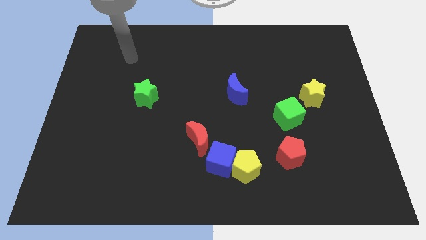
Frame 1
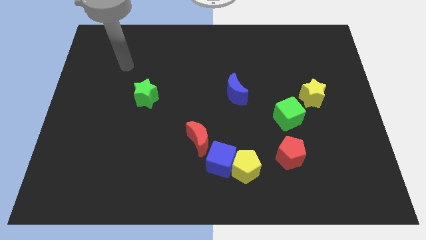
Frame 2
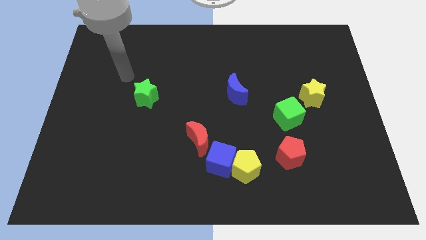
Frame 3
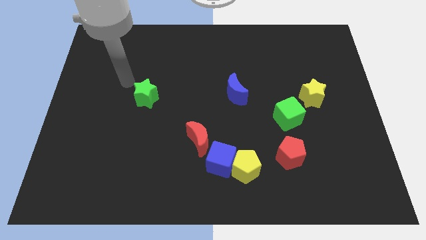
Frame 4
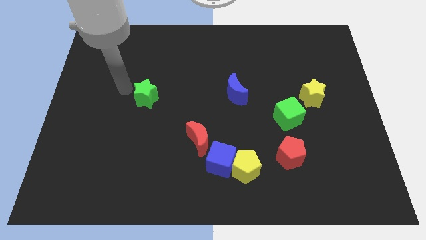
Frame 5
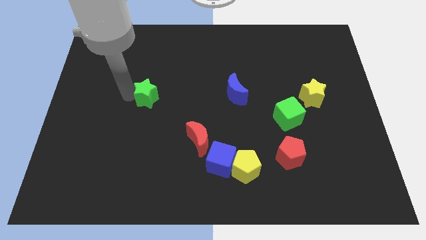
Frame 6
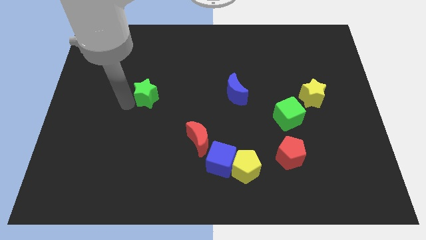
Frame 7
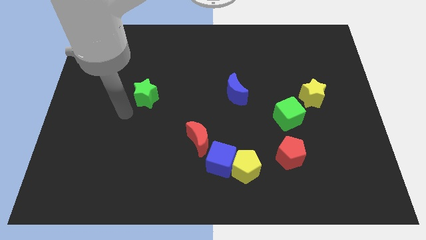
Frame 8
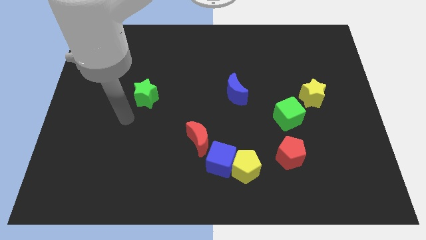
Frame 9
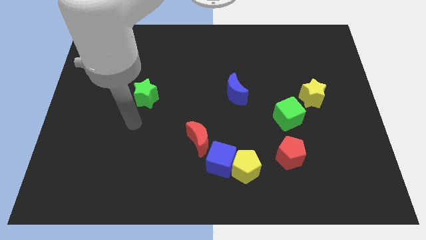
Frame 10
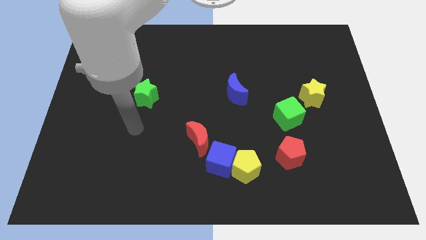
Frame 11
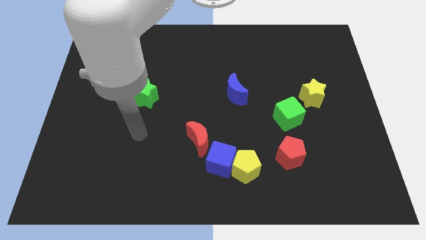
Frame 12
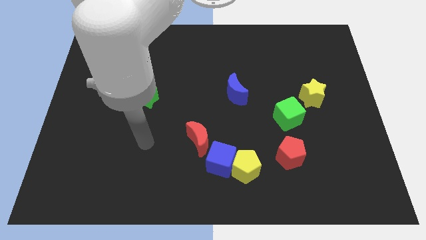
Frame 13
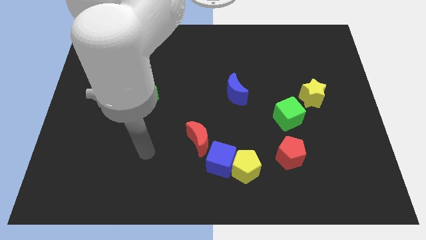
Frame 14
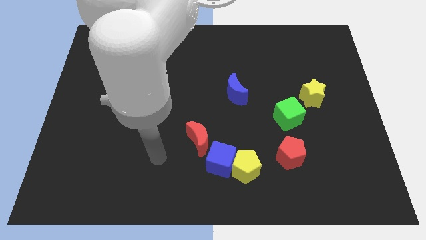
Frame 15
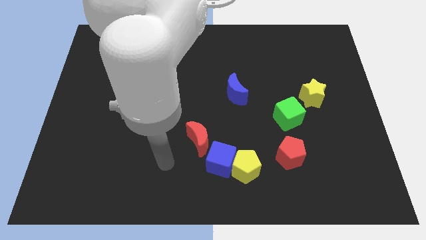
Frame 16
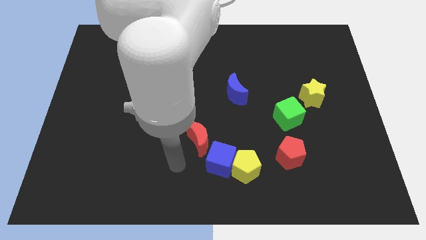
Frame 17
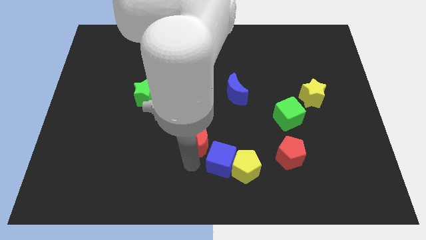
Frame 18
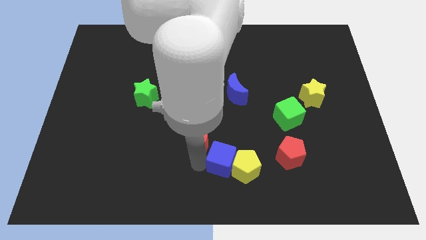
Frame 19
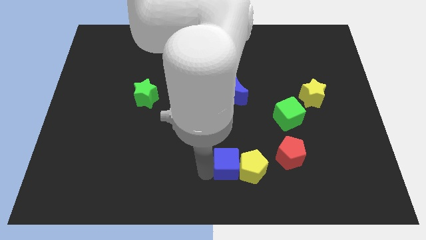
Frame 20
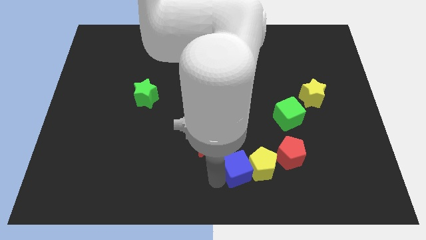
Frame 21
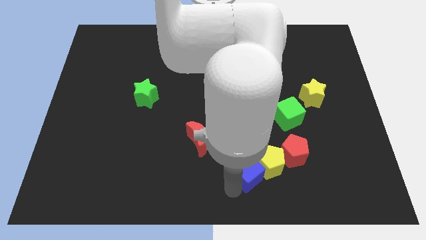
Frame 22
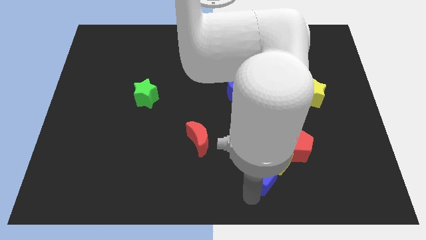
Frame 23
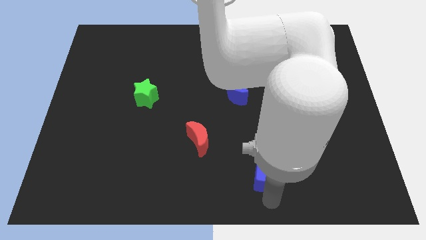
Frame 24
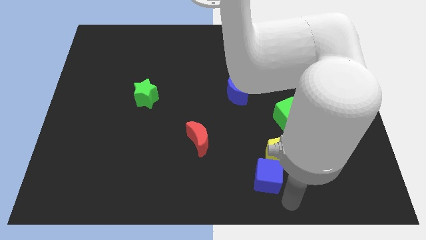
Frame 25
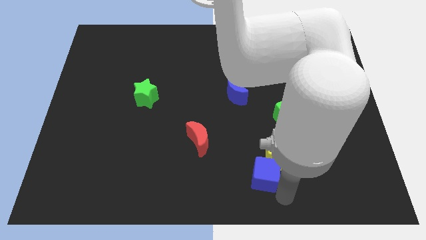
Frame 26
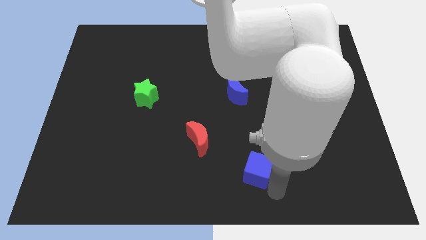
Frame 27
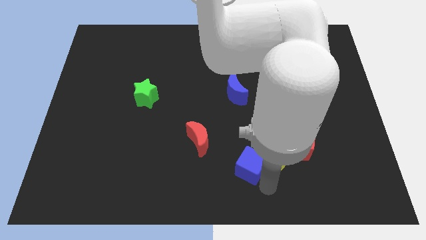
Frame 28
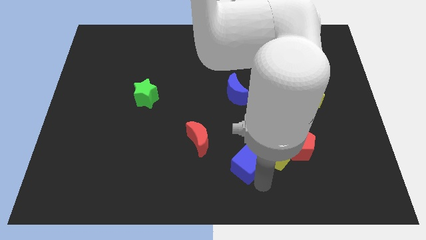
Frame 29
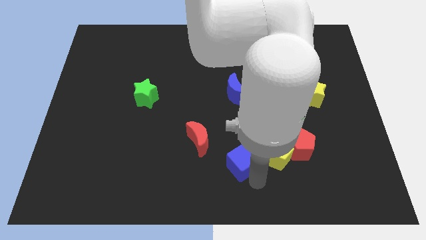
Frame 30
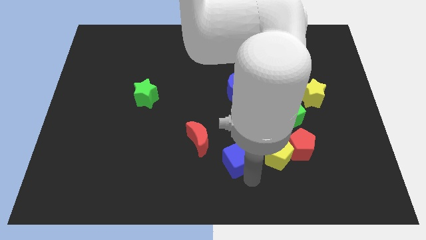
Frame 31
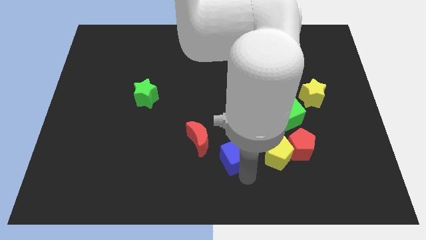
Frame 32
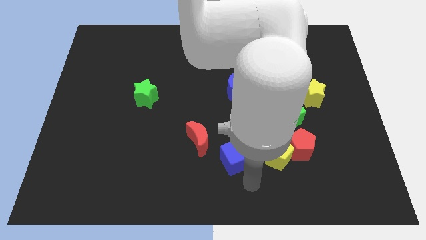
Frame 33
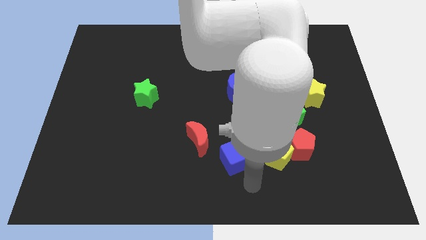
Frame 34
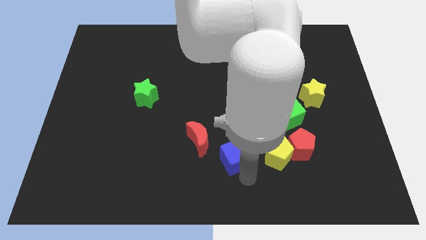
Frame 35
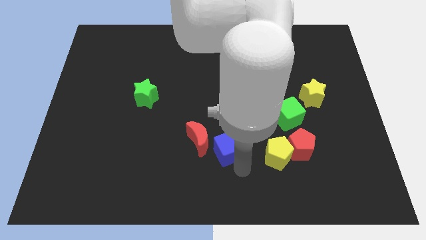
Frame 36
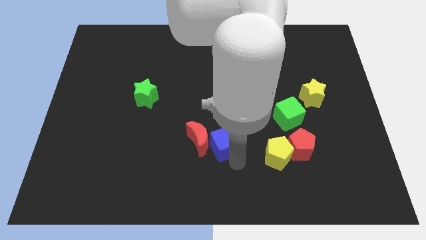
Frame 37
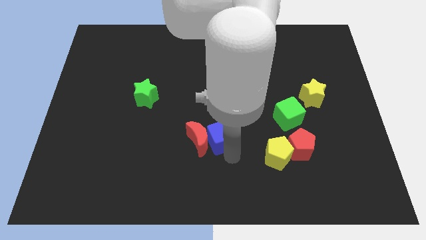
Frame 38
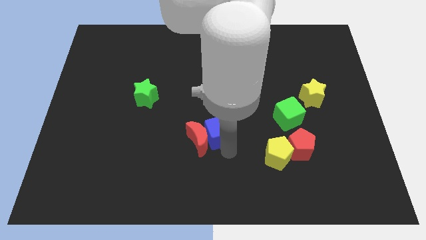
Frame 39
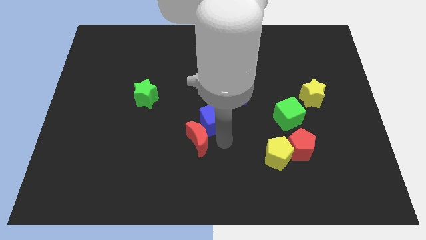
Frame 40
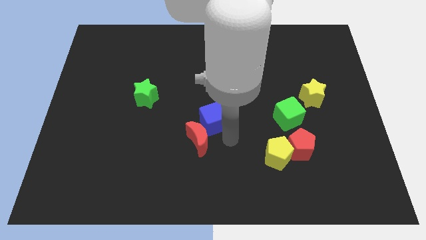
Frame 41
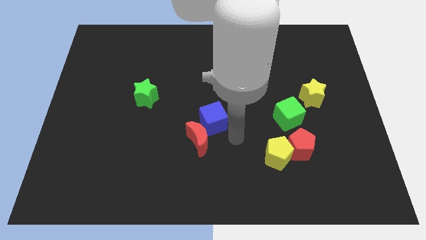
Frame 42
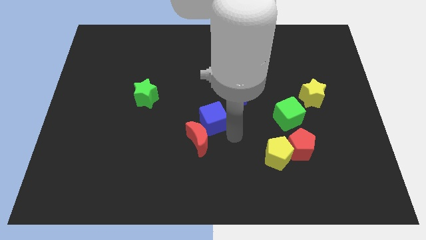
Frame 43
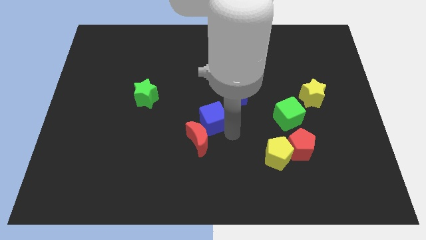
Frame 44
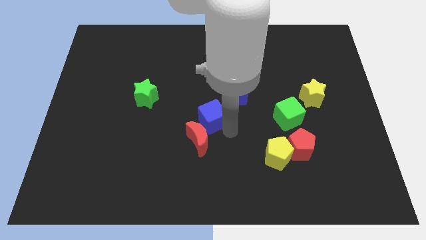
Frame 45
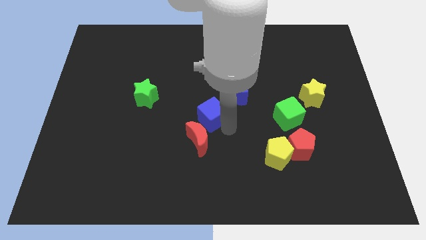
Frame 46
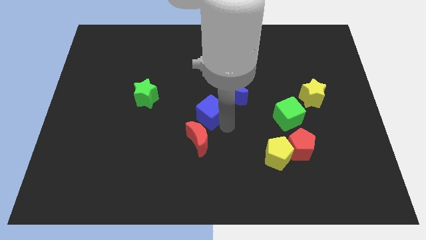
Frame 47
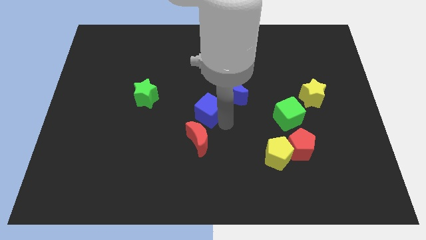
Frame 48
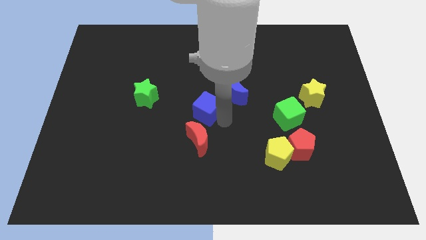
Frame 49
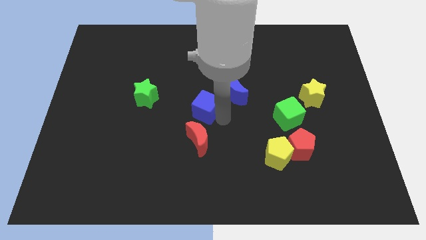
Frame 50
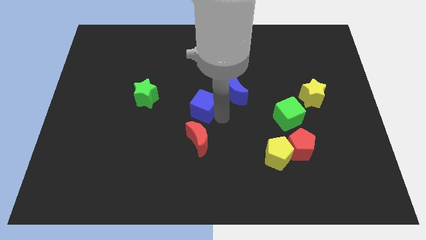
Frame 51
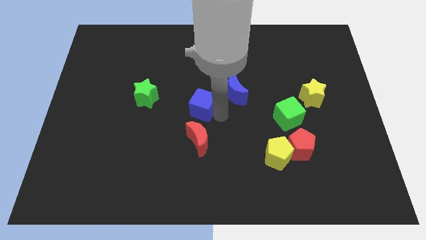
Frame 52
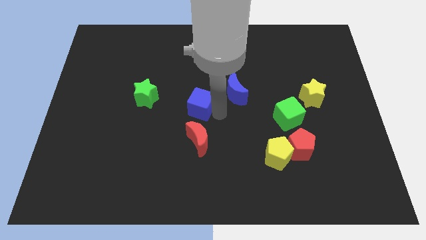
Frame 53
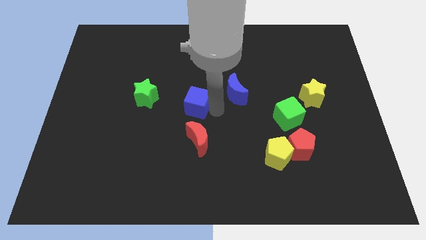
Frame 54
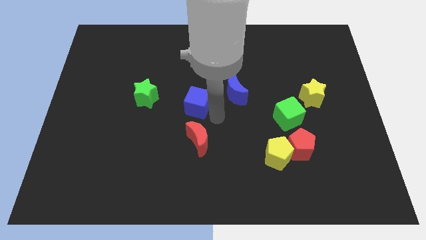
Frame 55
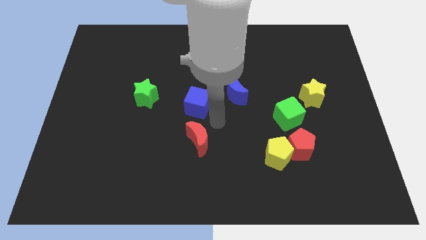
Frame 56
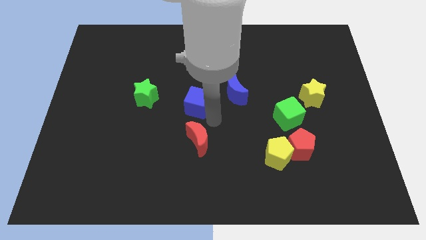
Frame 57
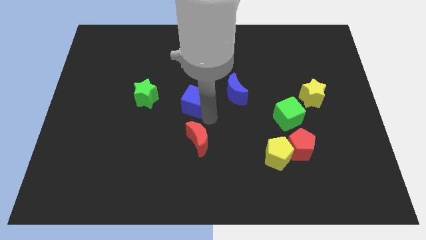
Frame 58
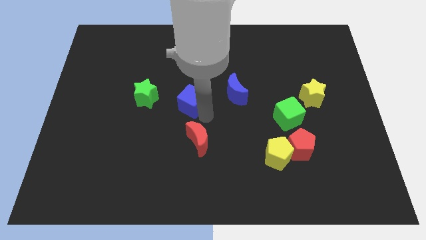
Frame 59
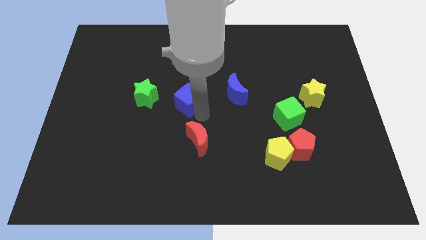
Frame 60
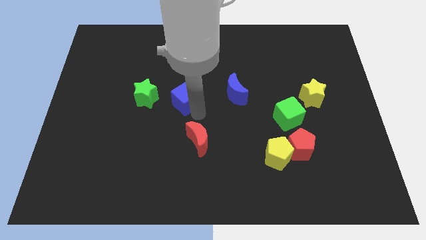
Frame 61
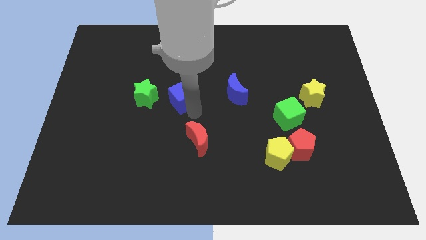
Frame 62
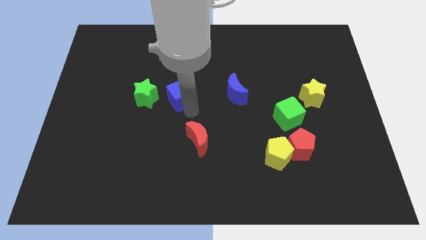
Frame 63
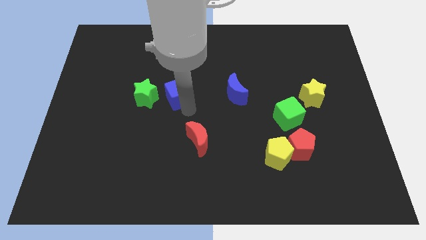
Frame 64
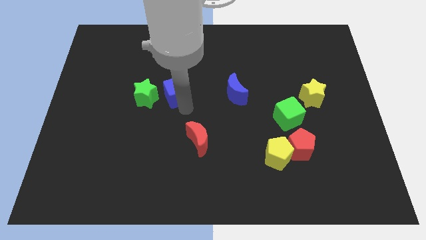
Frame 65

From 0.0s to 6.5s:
slide the blue cube diagonally up and to the right of the green star
